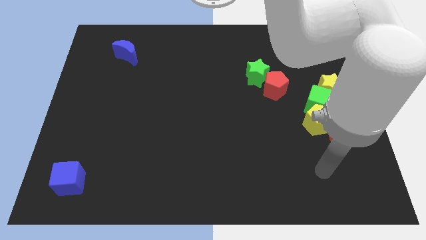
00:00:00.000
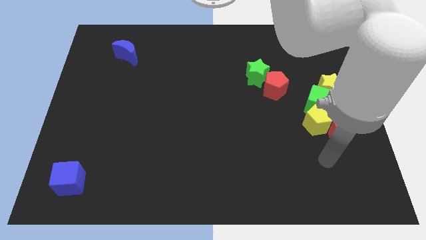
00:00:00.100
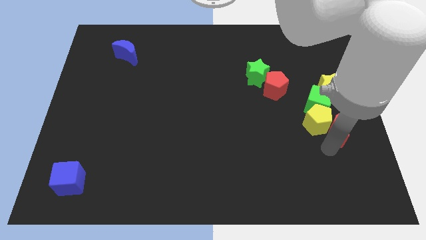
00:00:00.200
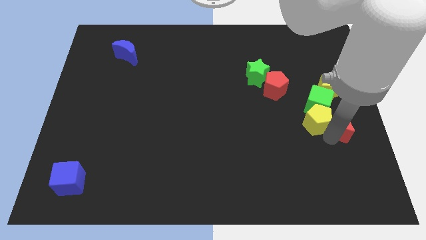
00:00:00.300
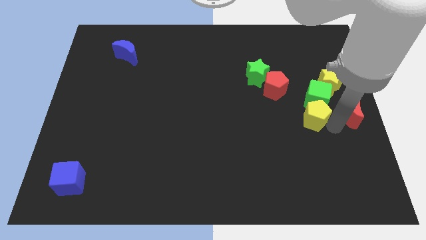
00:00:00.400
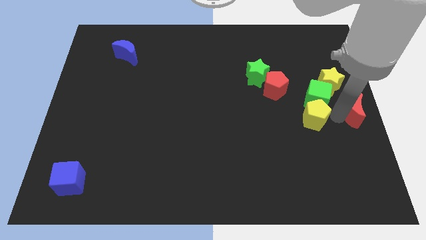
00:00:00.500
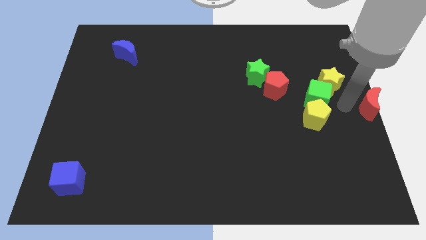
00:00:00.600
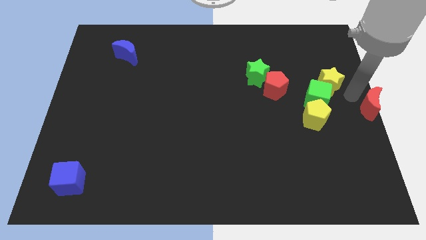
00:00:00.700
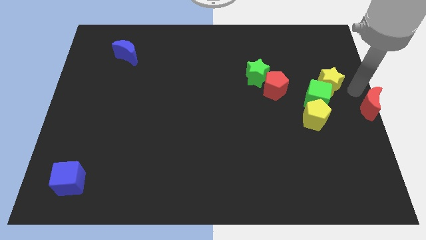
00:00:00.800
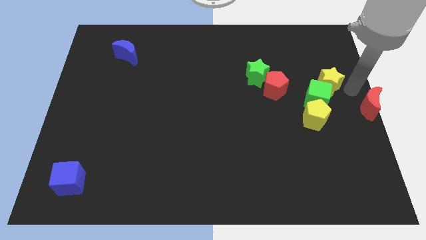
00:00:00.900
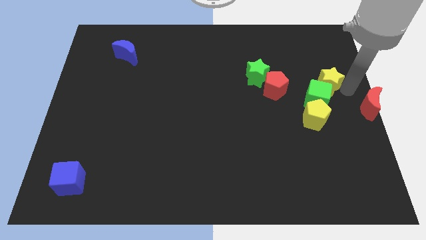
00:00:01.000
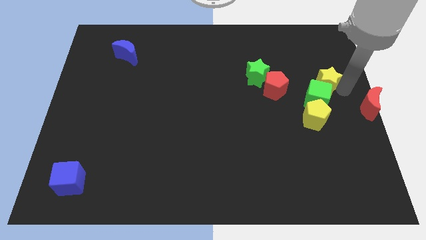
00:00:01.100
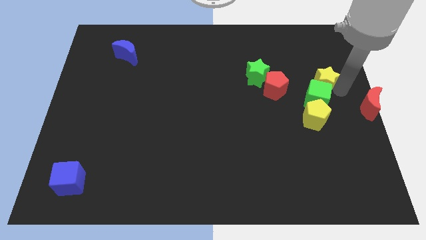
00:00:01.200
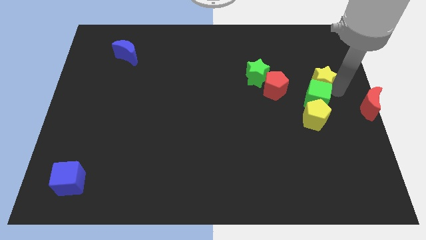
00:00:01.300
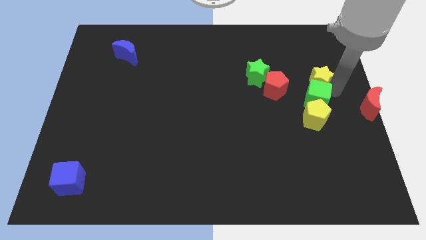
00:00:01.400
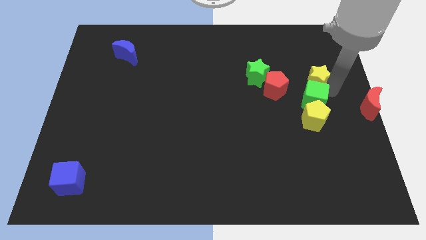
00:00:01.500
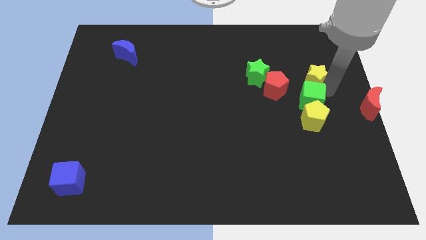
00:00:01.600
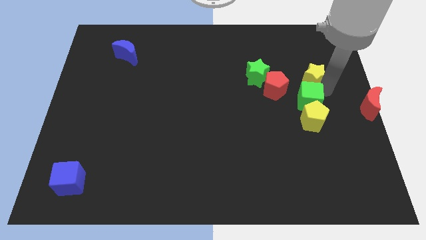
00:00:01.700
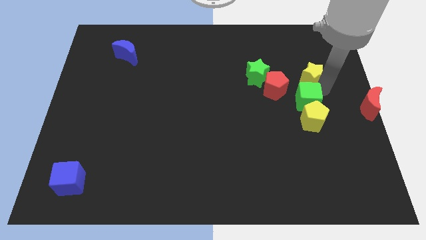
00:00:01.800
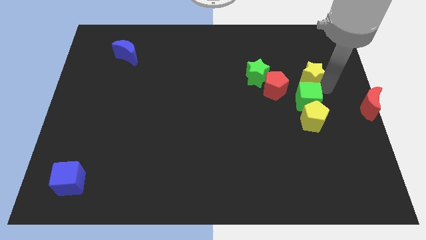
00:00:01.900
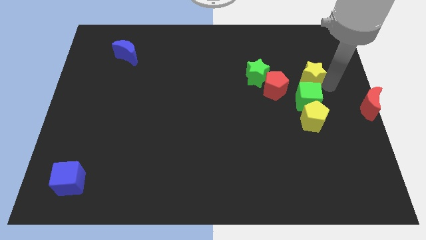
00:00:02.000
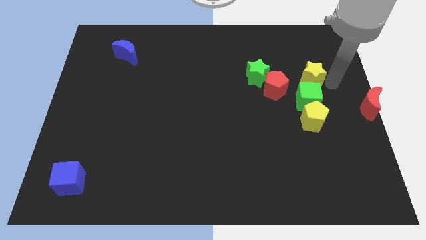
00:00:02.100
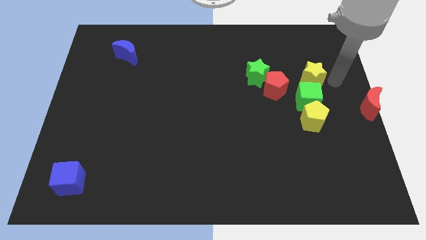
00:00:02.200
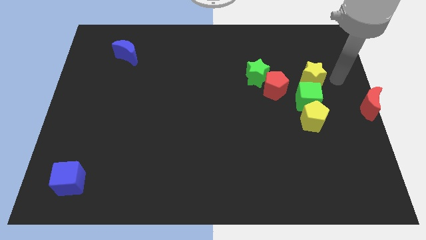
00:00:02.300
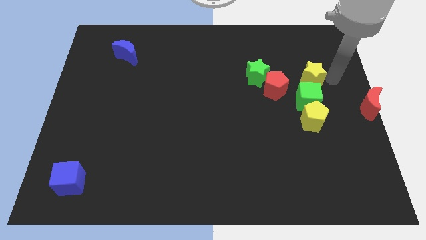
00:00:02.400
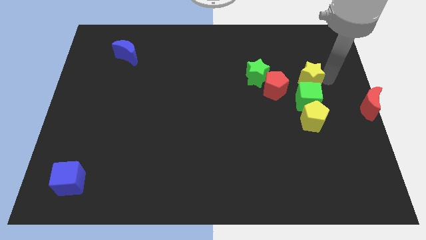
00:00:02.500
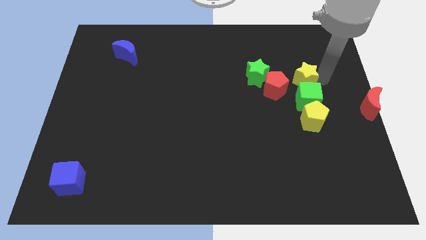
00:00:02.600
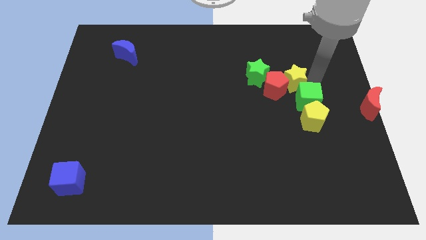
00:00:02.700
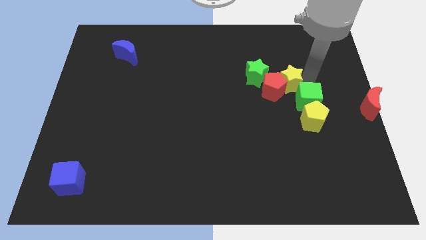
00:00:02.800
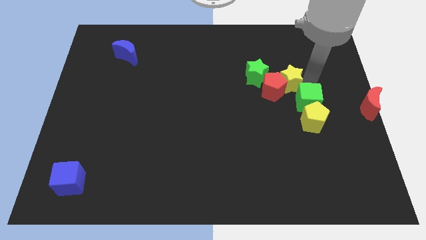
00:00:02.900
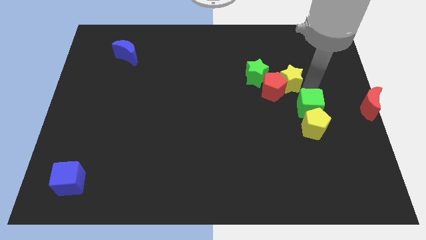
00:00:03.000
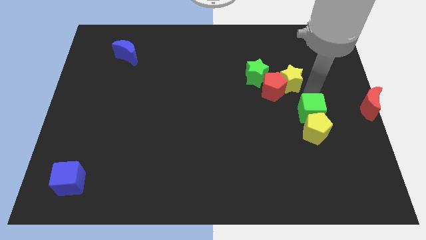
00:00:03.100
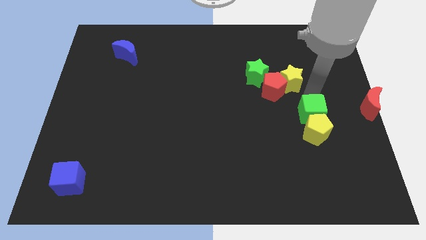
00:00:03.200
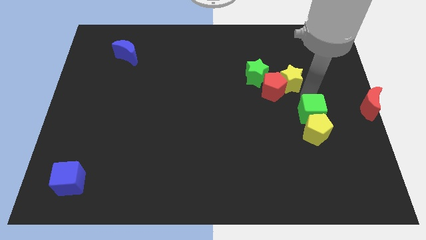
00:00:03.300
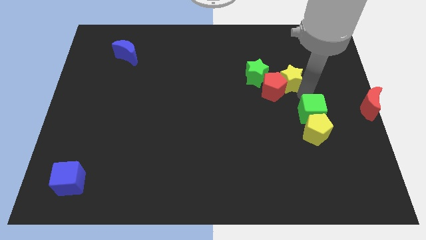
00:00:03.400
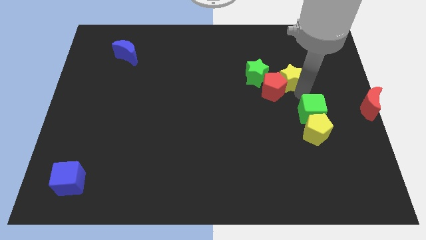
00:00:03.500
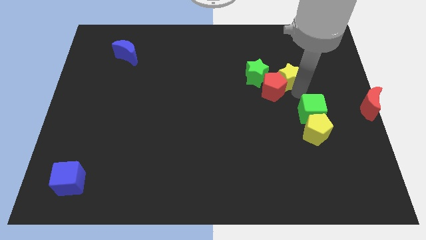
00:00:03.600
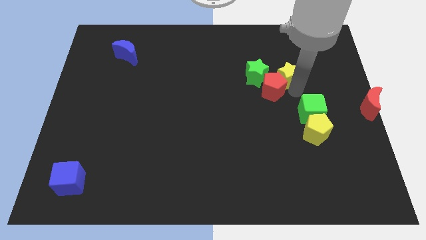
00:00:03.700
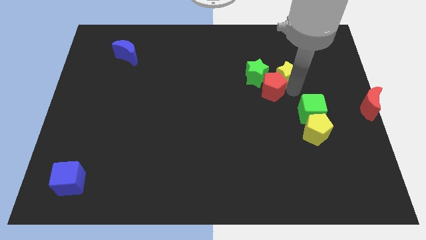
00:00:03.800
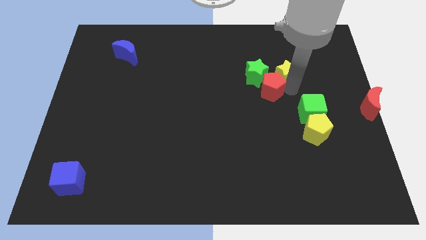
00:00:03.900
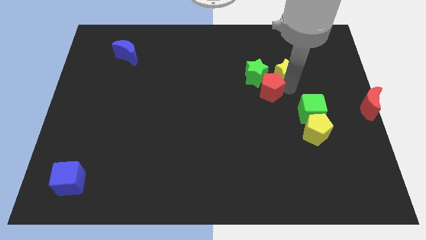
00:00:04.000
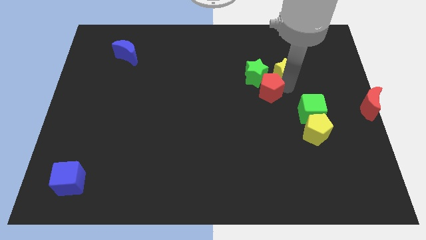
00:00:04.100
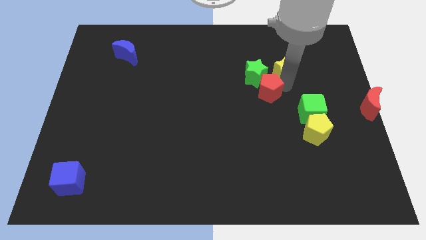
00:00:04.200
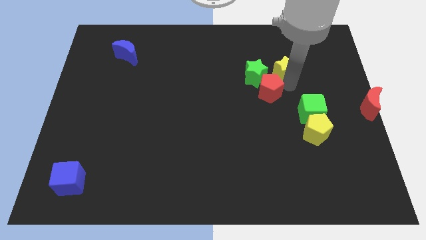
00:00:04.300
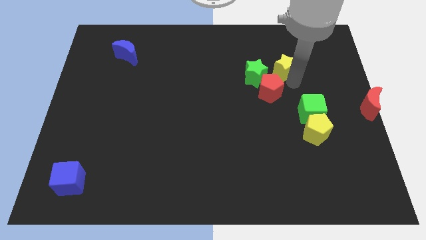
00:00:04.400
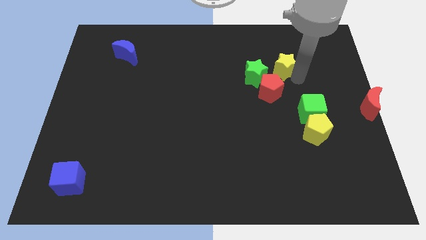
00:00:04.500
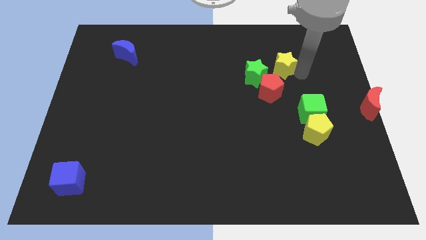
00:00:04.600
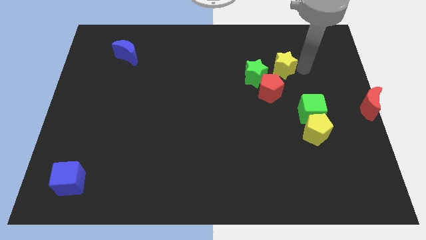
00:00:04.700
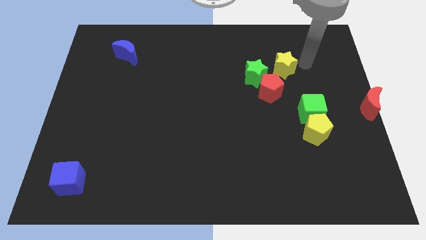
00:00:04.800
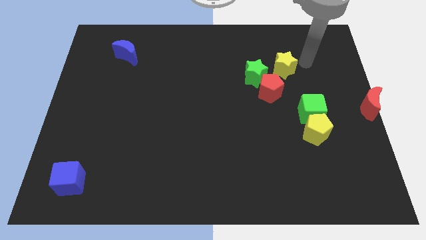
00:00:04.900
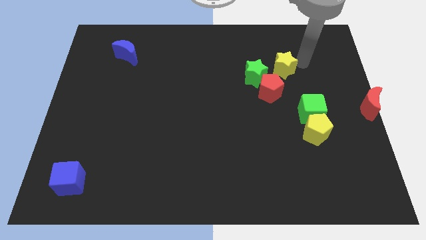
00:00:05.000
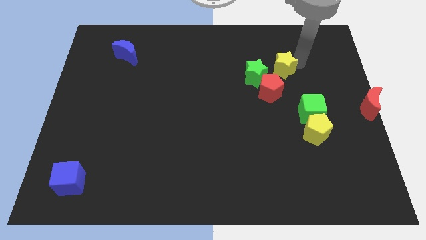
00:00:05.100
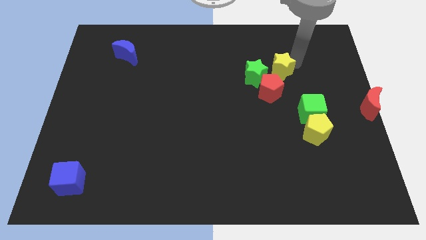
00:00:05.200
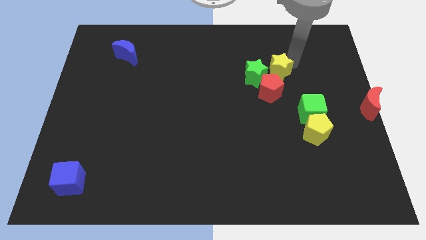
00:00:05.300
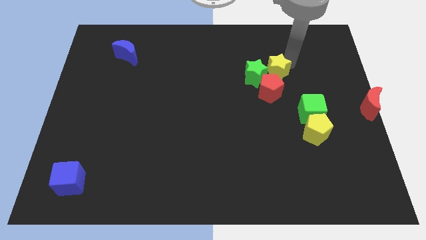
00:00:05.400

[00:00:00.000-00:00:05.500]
move the yellow star next to the green star

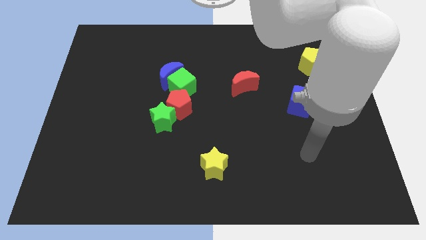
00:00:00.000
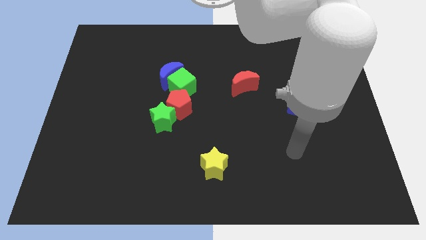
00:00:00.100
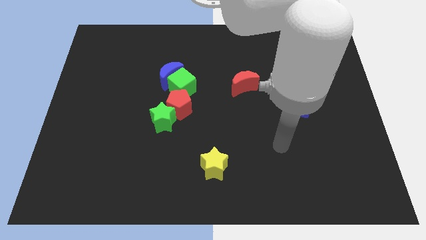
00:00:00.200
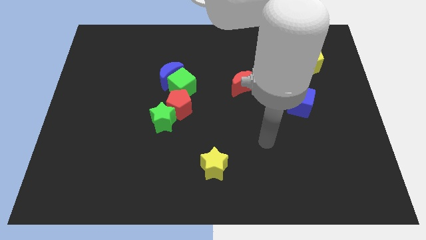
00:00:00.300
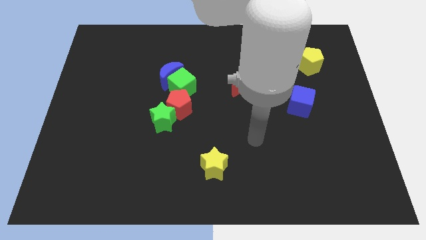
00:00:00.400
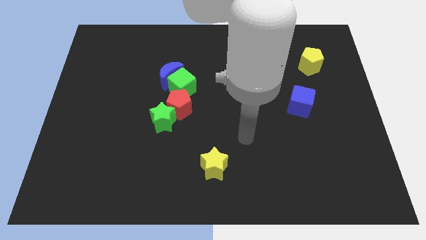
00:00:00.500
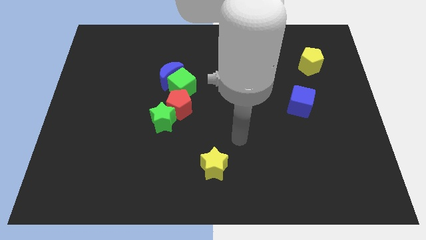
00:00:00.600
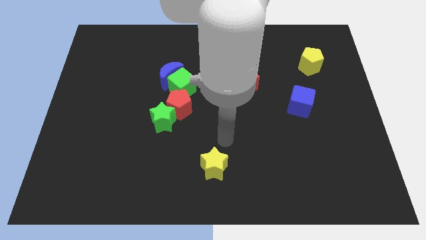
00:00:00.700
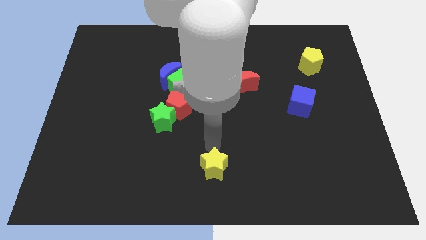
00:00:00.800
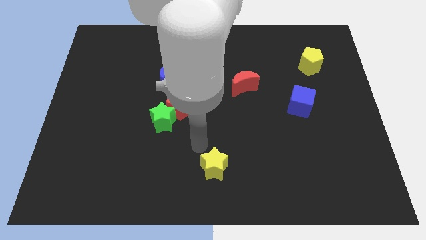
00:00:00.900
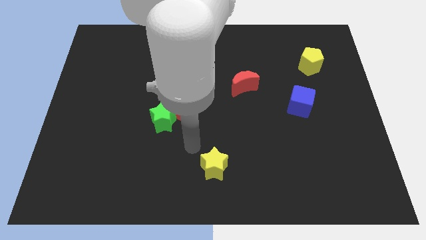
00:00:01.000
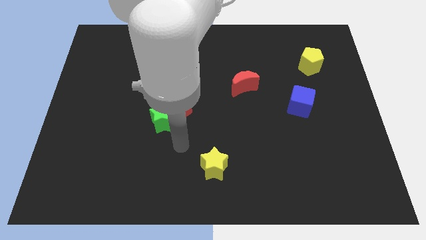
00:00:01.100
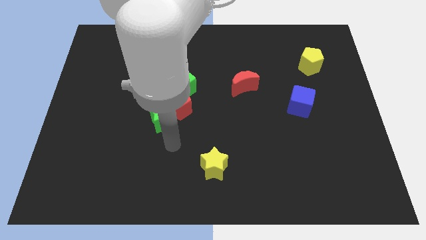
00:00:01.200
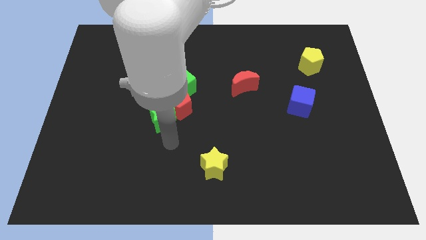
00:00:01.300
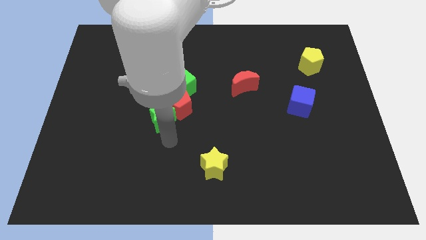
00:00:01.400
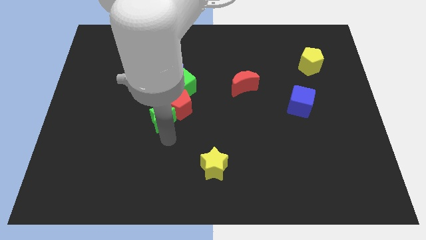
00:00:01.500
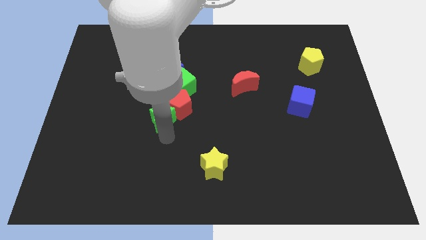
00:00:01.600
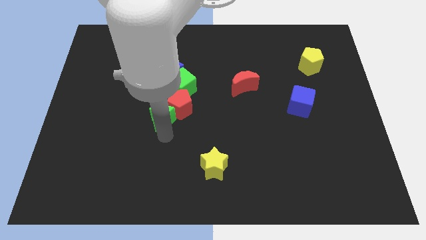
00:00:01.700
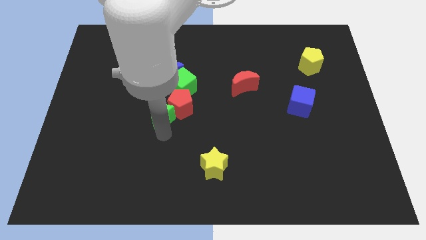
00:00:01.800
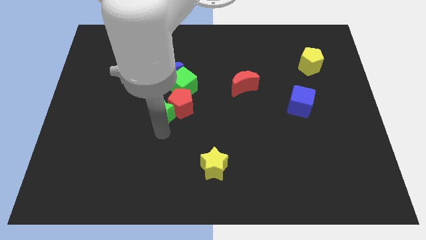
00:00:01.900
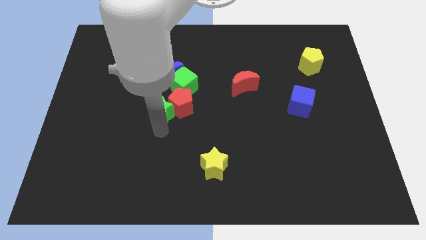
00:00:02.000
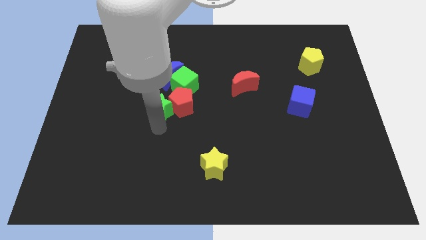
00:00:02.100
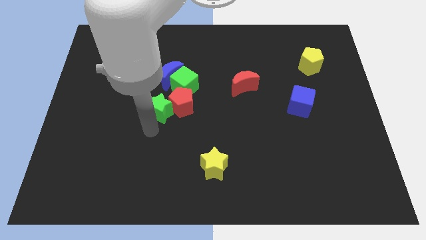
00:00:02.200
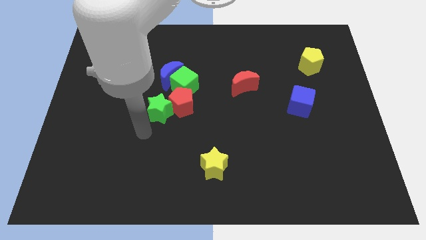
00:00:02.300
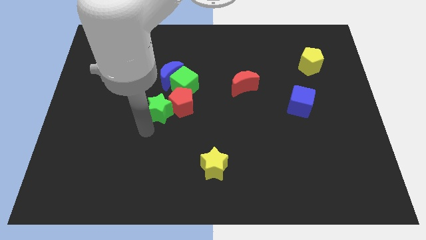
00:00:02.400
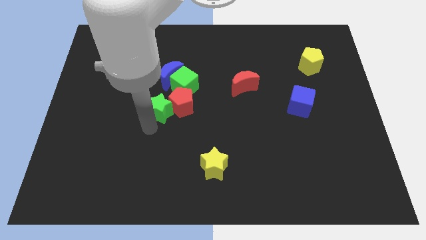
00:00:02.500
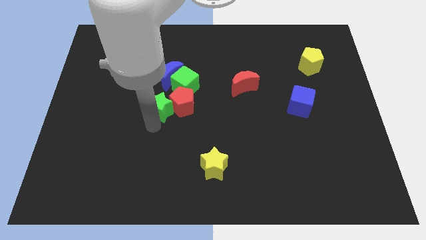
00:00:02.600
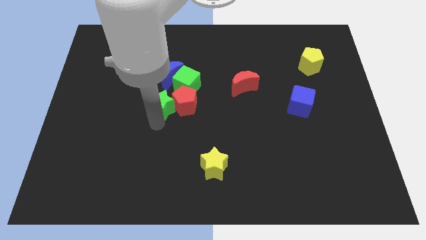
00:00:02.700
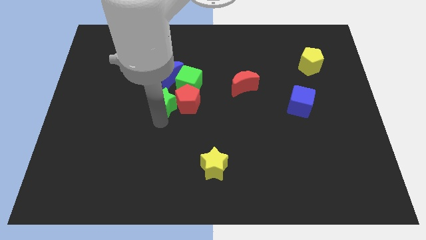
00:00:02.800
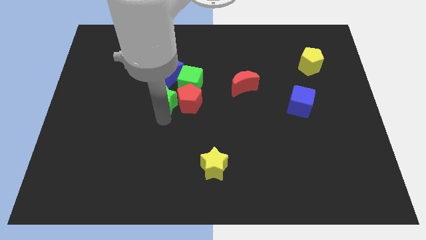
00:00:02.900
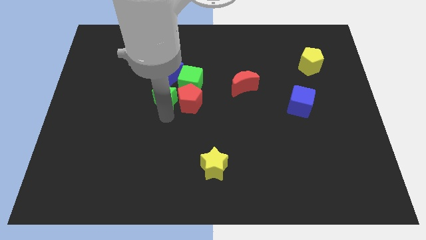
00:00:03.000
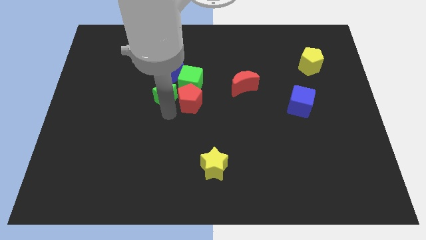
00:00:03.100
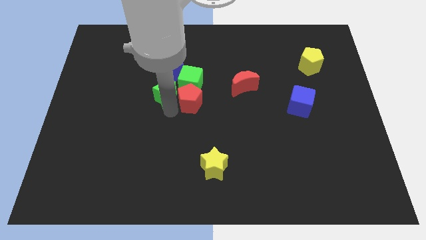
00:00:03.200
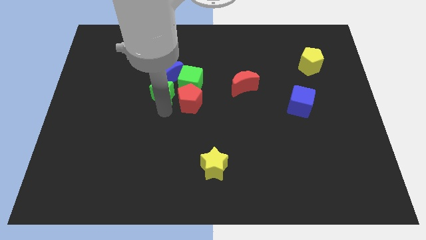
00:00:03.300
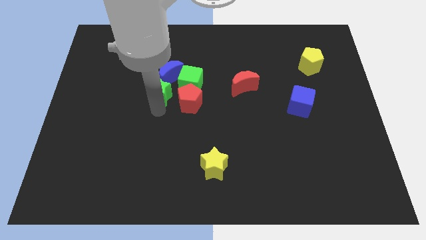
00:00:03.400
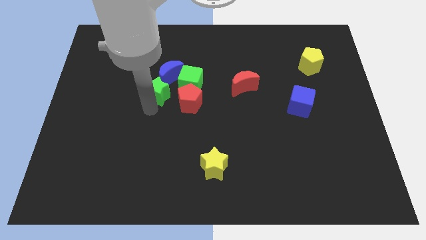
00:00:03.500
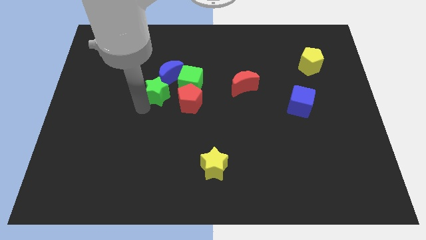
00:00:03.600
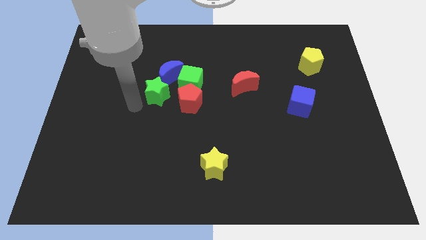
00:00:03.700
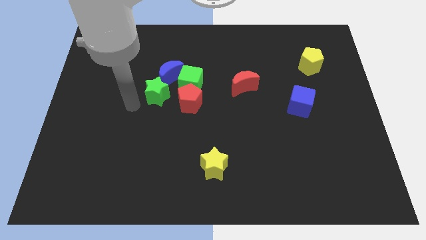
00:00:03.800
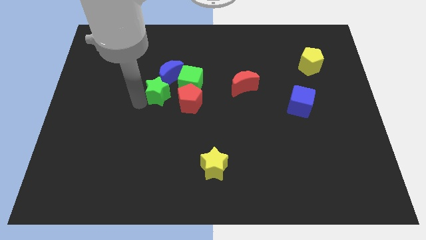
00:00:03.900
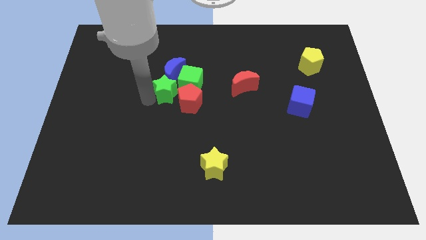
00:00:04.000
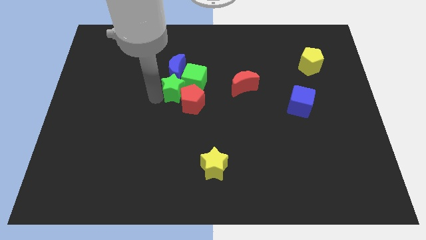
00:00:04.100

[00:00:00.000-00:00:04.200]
push the green star to the green cube
